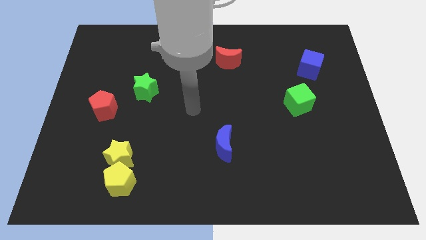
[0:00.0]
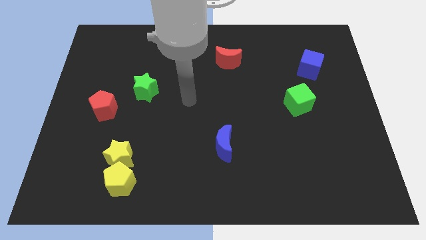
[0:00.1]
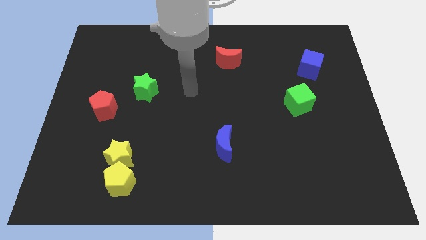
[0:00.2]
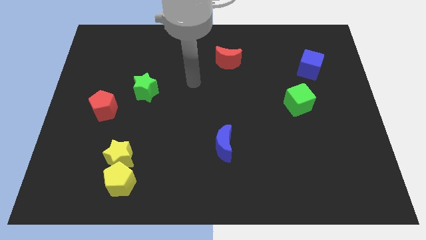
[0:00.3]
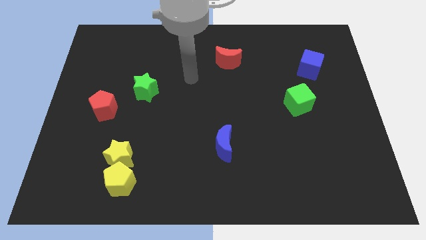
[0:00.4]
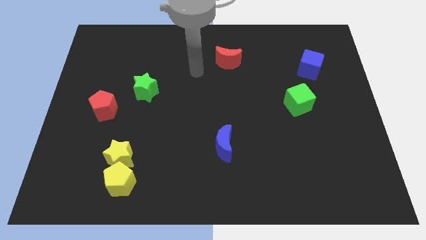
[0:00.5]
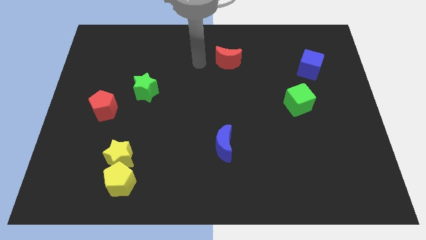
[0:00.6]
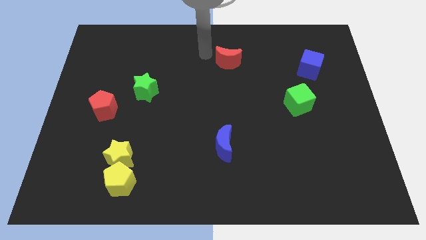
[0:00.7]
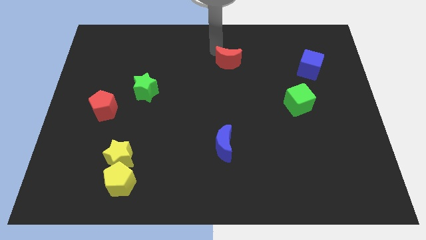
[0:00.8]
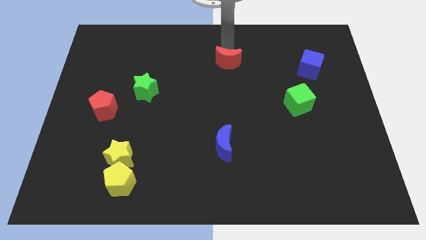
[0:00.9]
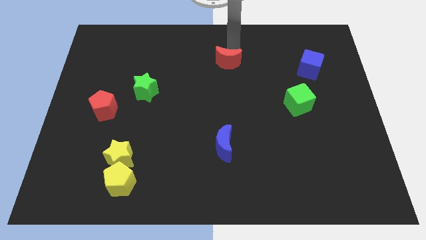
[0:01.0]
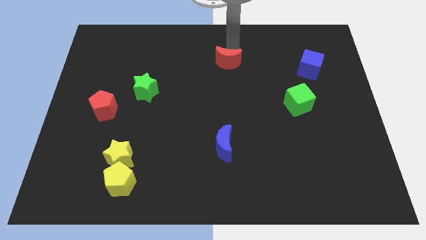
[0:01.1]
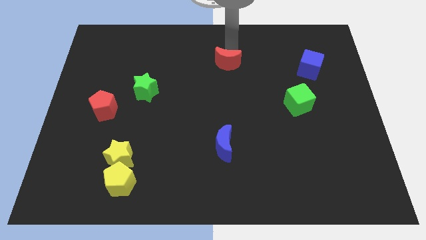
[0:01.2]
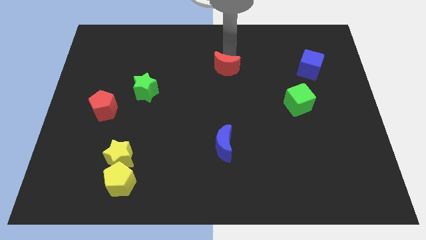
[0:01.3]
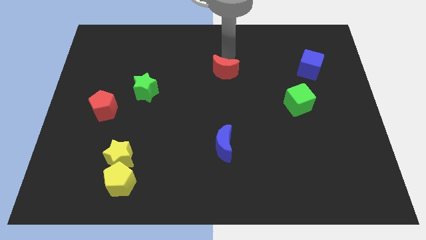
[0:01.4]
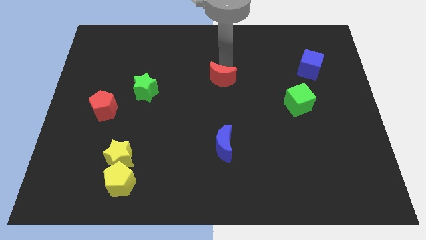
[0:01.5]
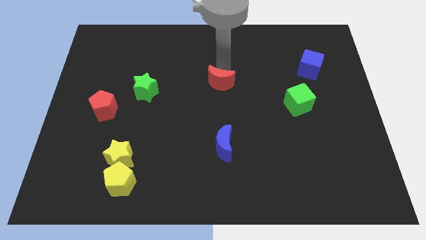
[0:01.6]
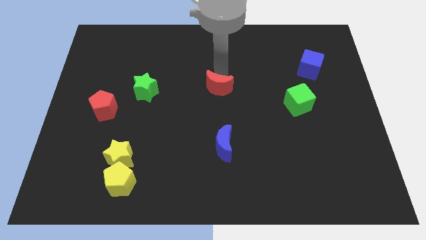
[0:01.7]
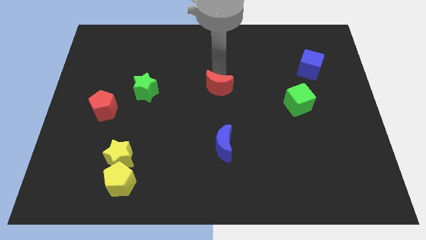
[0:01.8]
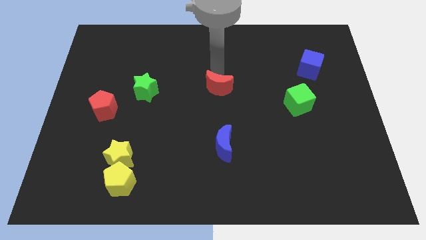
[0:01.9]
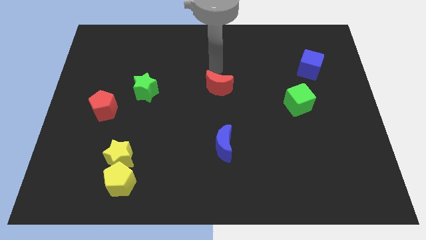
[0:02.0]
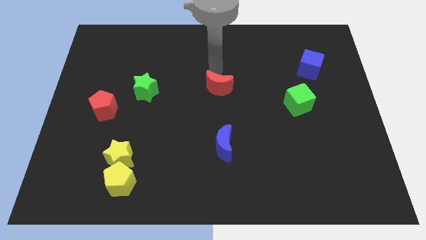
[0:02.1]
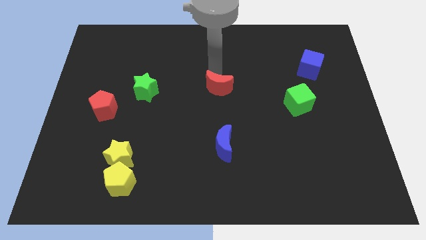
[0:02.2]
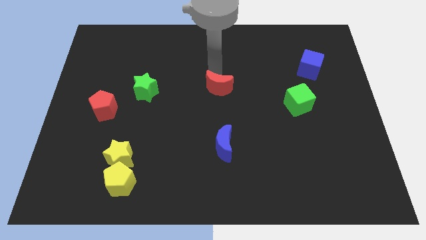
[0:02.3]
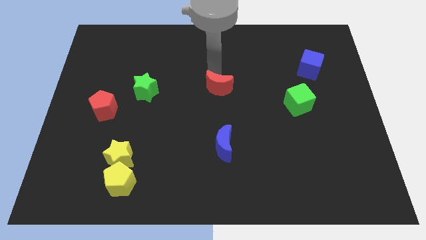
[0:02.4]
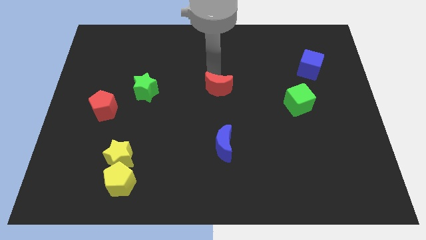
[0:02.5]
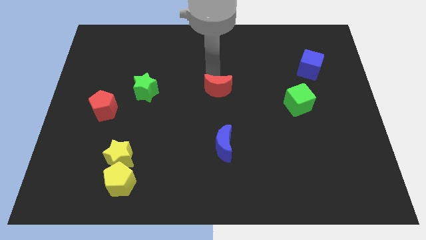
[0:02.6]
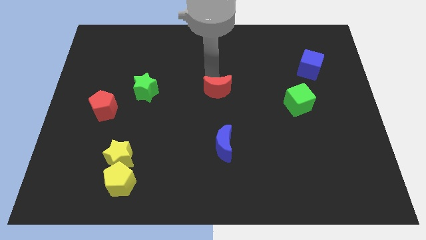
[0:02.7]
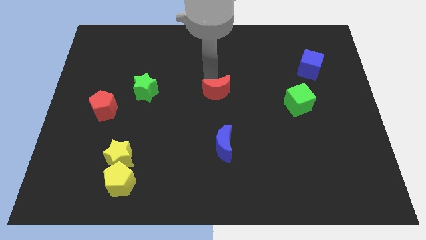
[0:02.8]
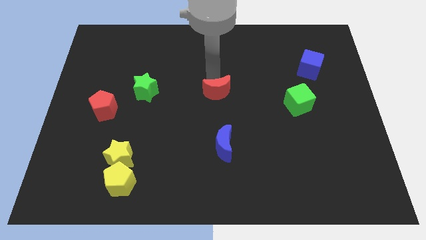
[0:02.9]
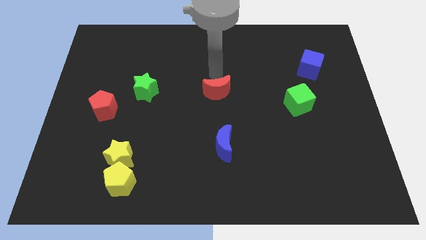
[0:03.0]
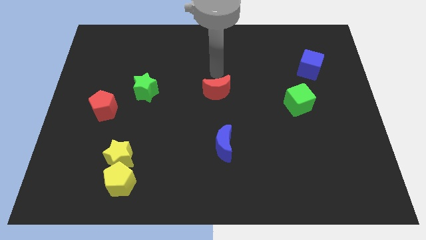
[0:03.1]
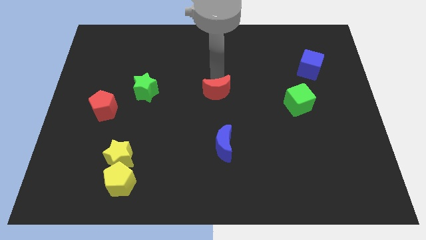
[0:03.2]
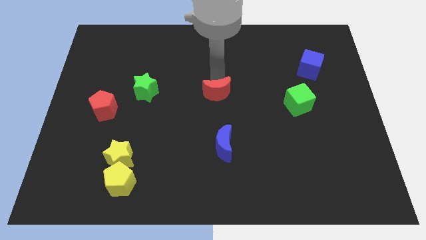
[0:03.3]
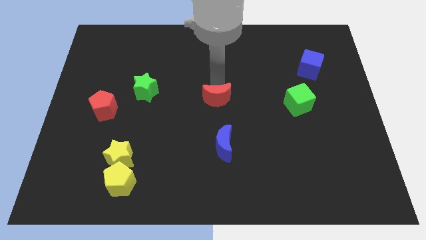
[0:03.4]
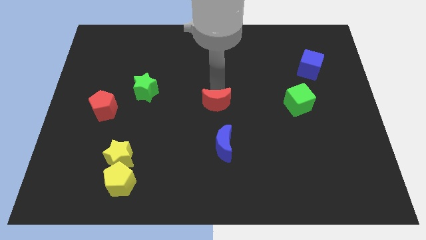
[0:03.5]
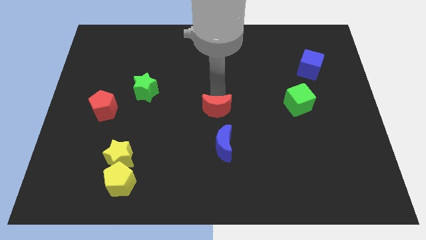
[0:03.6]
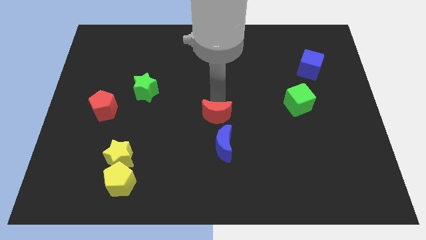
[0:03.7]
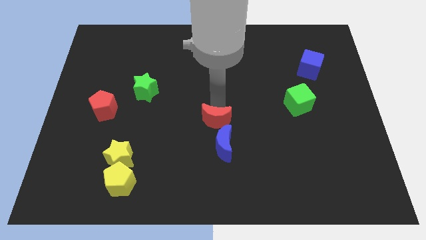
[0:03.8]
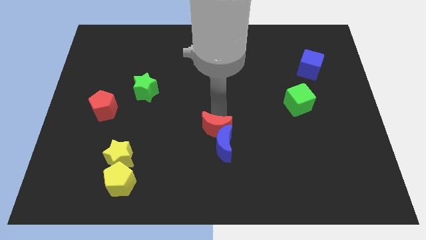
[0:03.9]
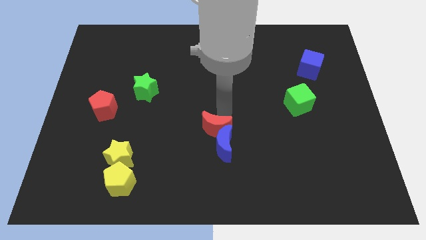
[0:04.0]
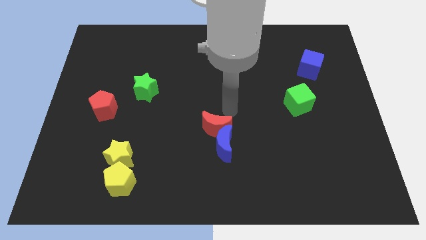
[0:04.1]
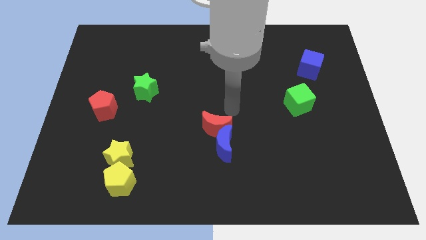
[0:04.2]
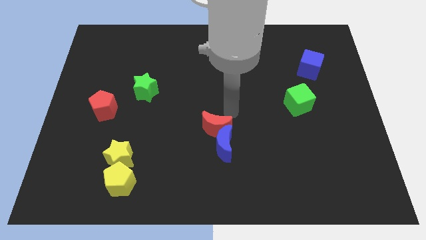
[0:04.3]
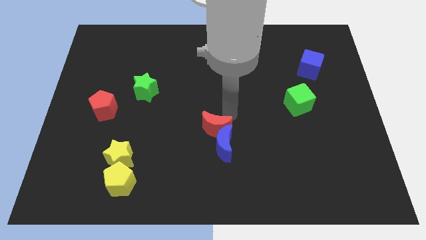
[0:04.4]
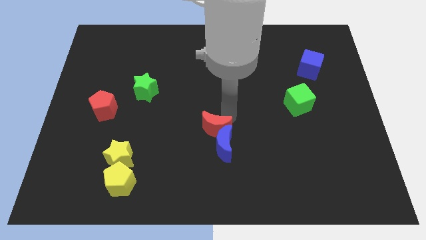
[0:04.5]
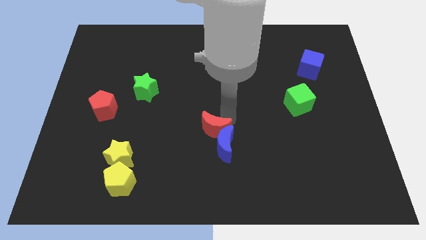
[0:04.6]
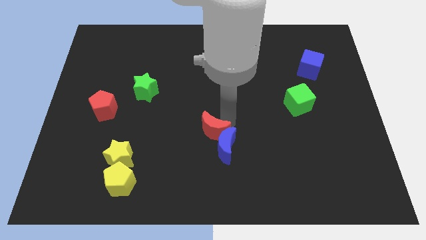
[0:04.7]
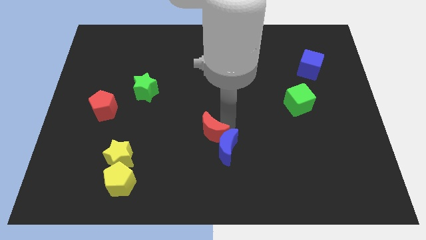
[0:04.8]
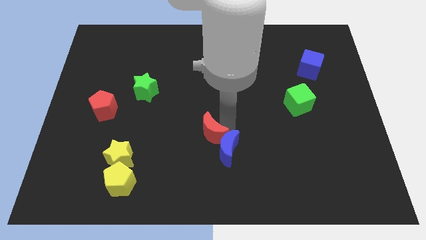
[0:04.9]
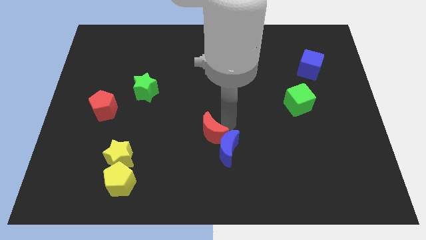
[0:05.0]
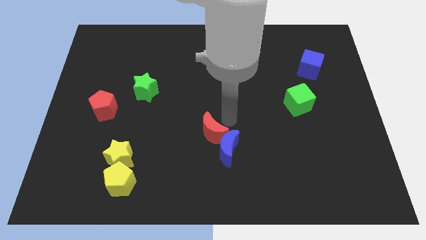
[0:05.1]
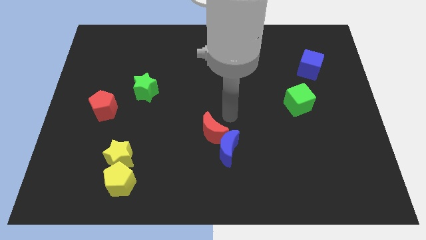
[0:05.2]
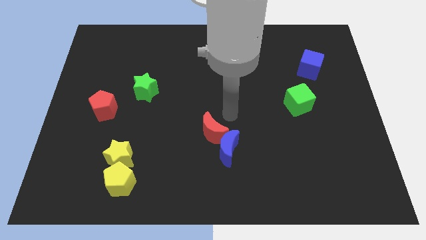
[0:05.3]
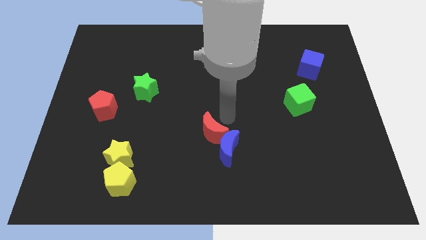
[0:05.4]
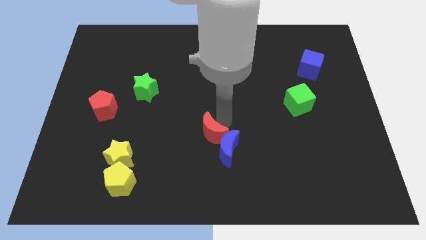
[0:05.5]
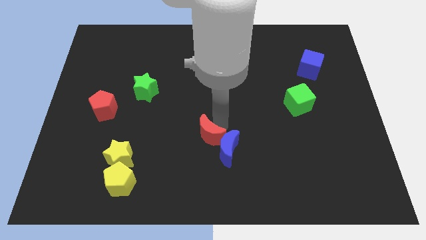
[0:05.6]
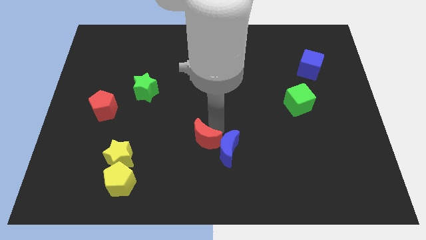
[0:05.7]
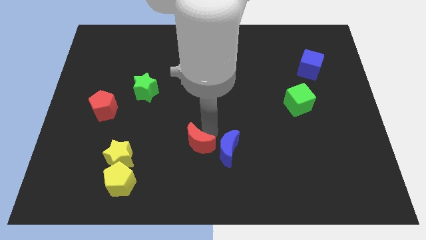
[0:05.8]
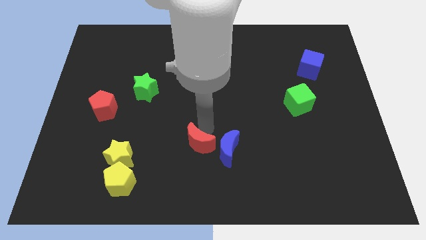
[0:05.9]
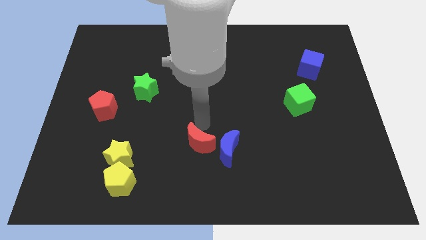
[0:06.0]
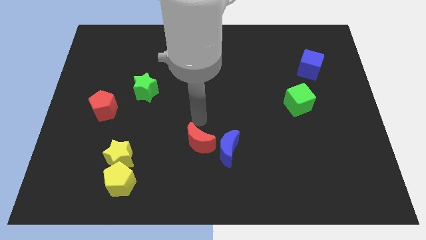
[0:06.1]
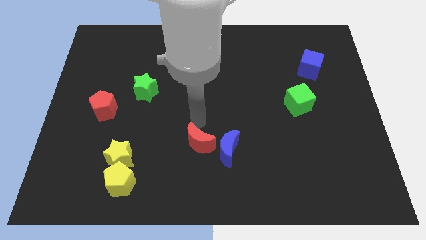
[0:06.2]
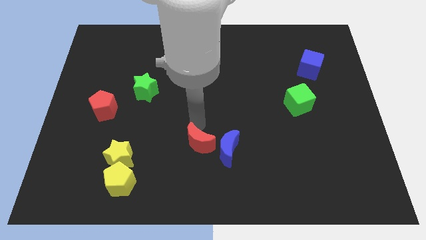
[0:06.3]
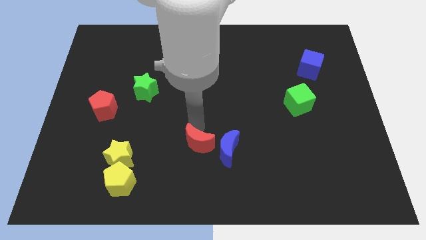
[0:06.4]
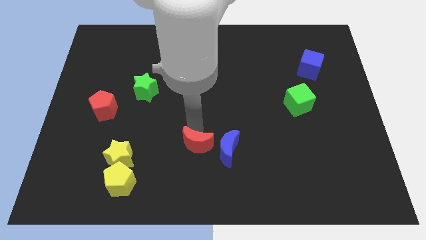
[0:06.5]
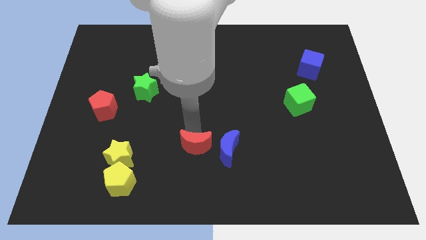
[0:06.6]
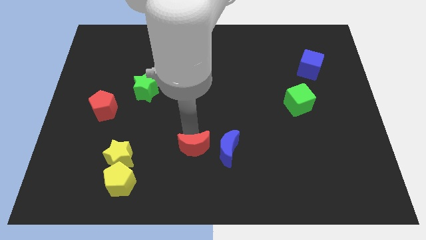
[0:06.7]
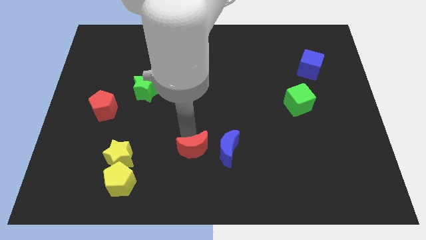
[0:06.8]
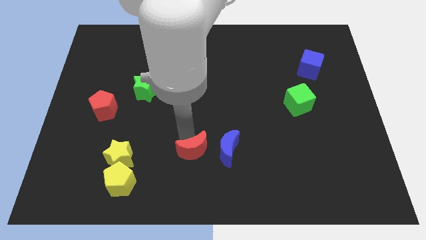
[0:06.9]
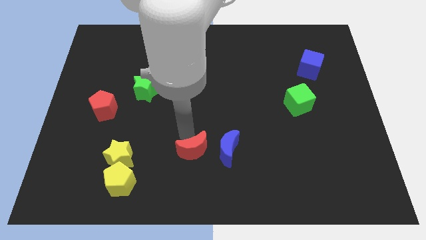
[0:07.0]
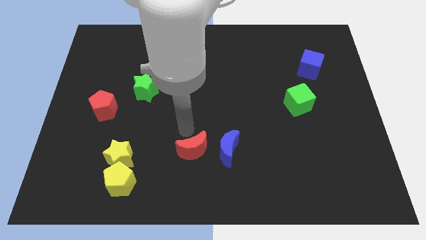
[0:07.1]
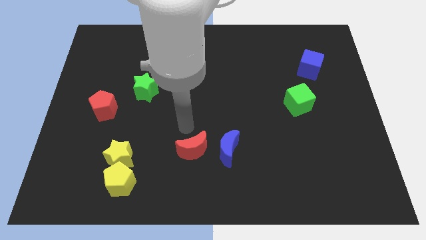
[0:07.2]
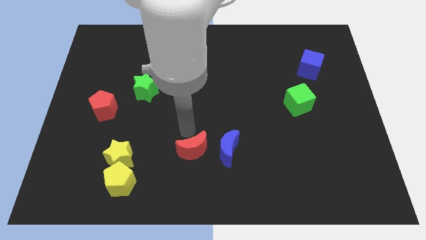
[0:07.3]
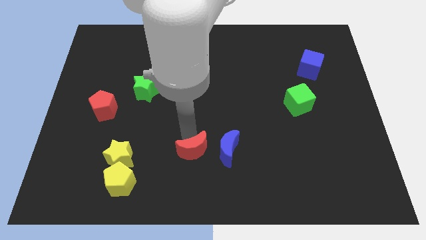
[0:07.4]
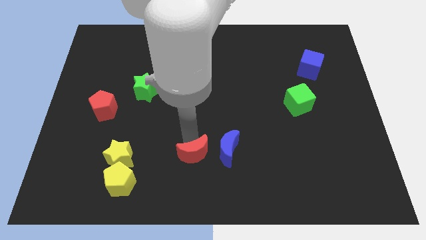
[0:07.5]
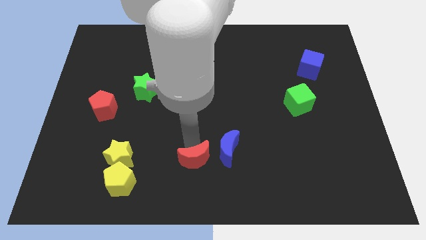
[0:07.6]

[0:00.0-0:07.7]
move the red moon to the bottom side
